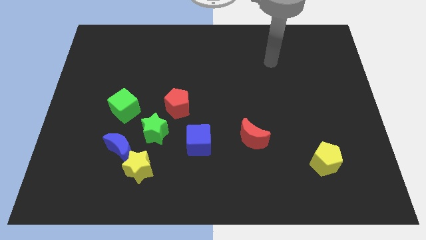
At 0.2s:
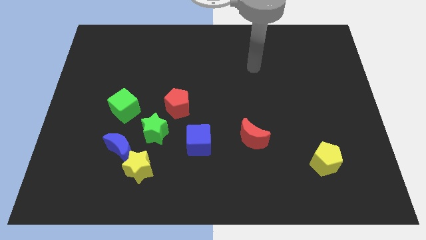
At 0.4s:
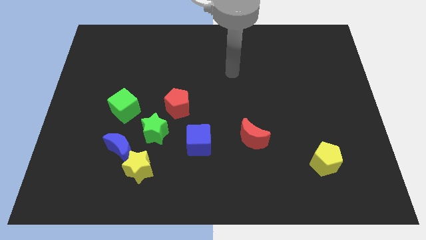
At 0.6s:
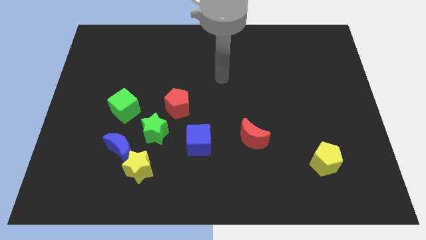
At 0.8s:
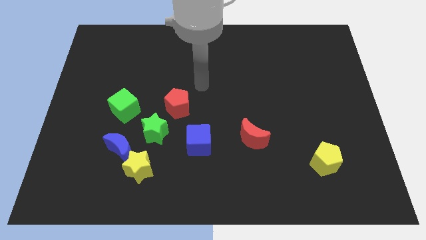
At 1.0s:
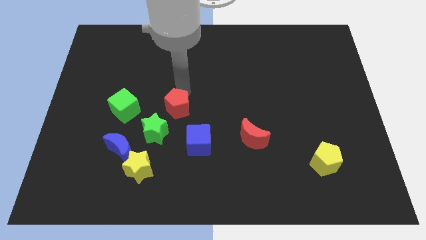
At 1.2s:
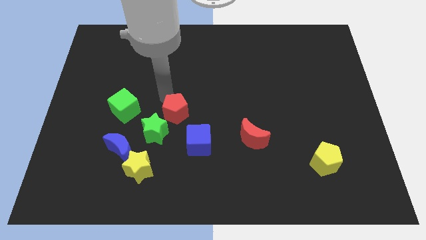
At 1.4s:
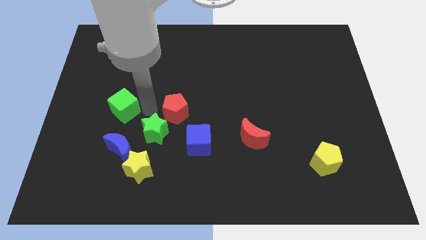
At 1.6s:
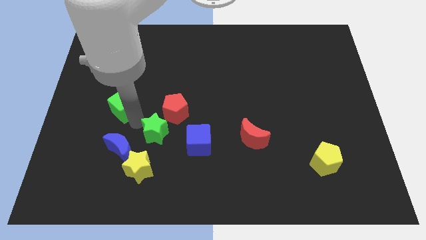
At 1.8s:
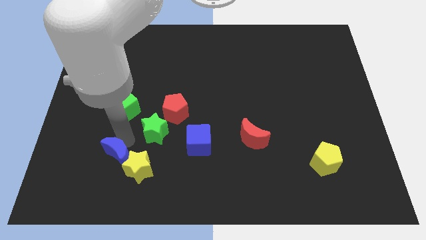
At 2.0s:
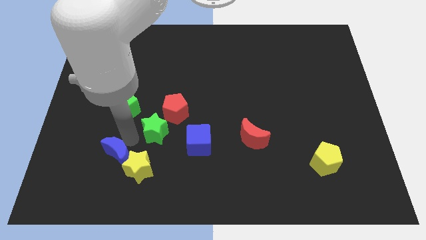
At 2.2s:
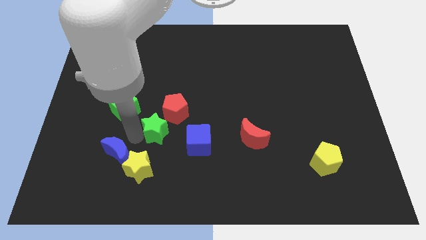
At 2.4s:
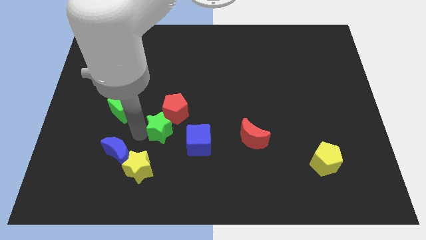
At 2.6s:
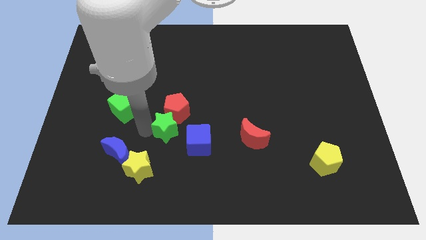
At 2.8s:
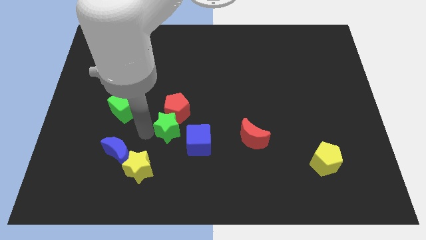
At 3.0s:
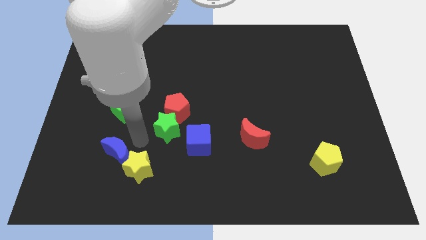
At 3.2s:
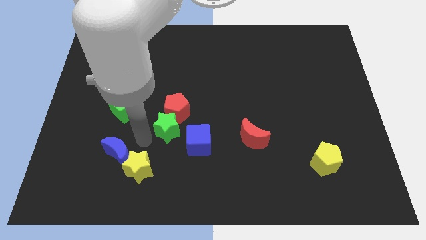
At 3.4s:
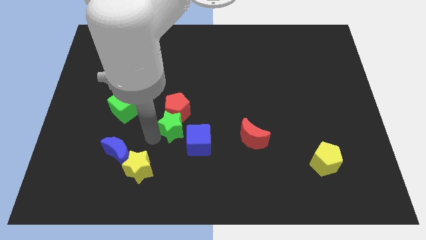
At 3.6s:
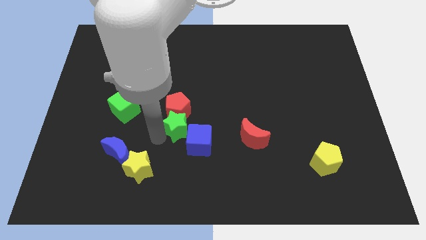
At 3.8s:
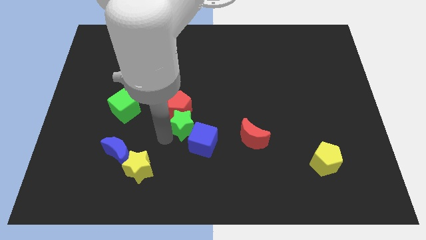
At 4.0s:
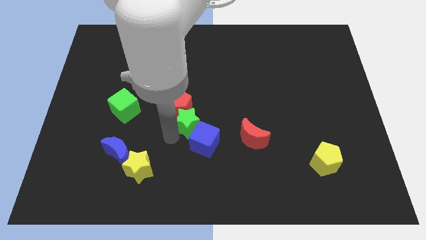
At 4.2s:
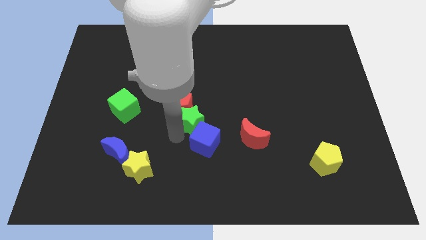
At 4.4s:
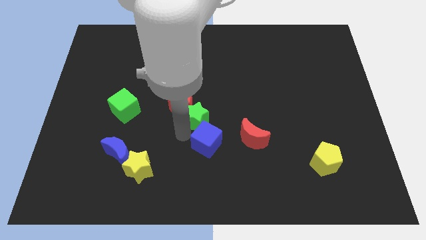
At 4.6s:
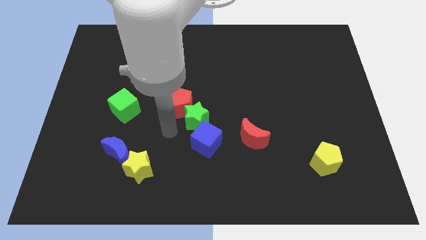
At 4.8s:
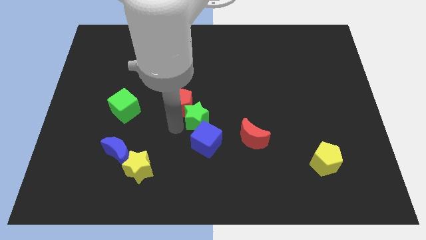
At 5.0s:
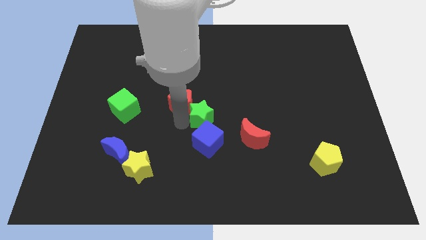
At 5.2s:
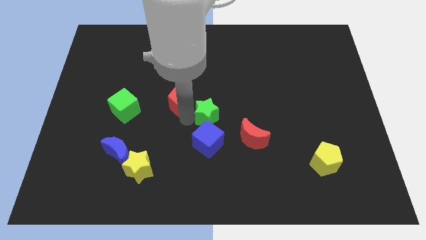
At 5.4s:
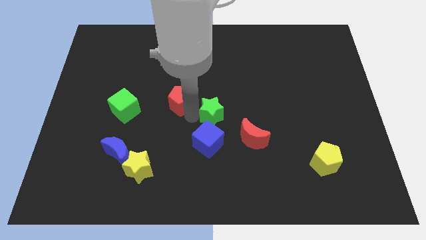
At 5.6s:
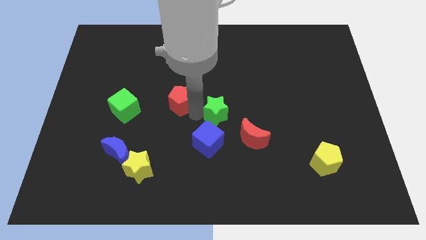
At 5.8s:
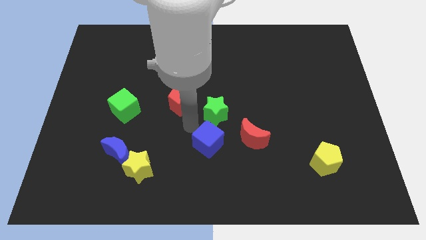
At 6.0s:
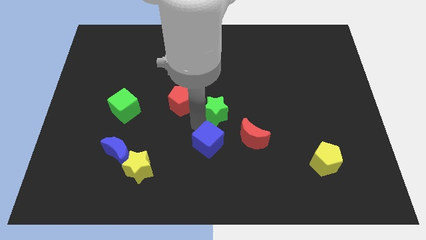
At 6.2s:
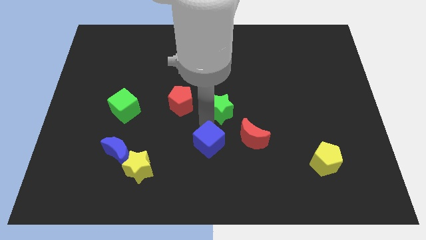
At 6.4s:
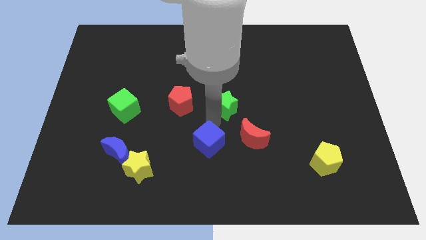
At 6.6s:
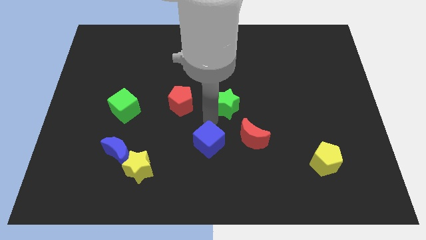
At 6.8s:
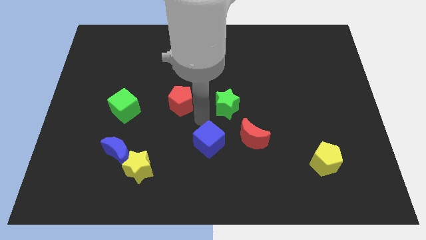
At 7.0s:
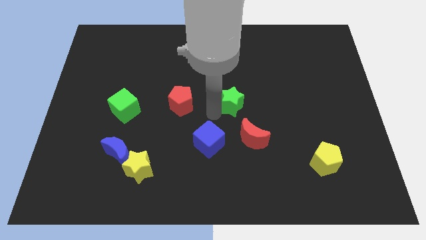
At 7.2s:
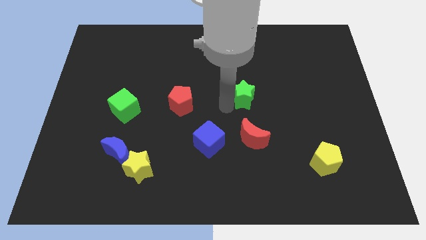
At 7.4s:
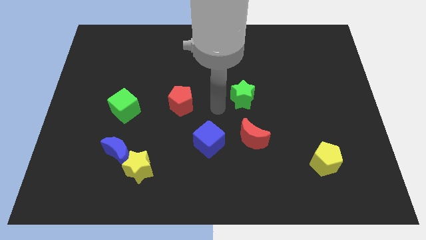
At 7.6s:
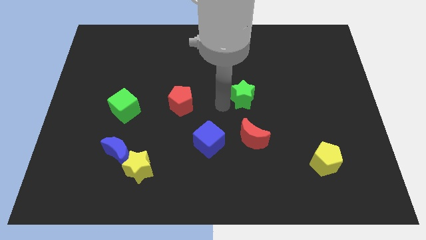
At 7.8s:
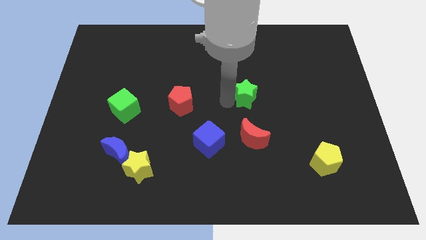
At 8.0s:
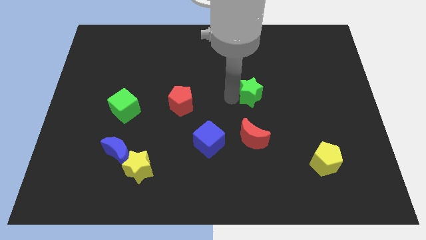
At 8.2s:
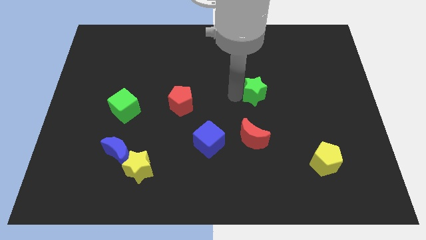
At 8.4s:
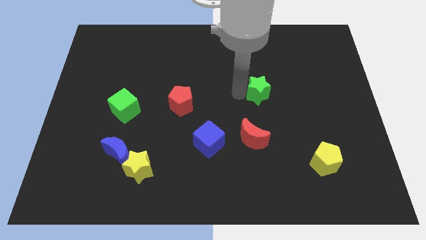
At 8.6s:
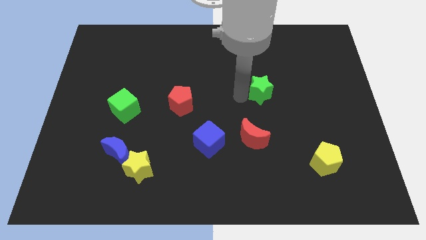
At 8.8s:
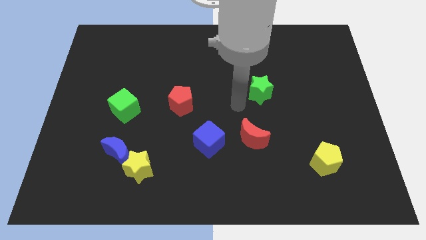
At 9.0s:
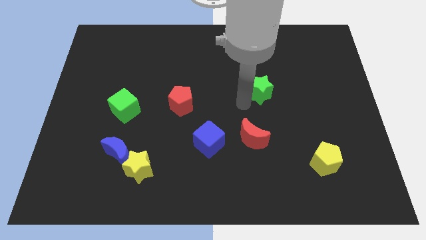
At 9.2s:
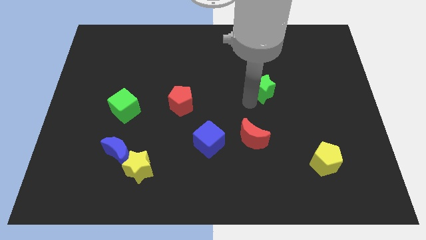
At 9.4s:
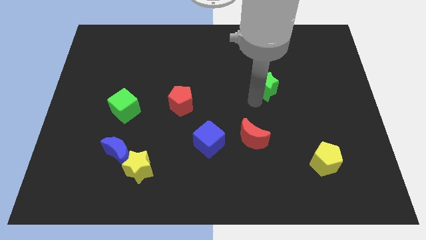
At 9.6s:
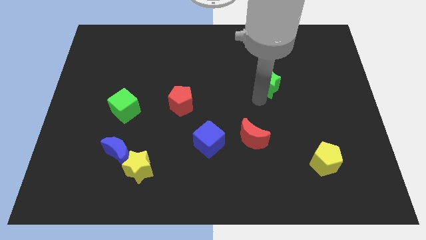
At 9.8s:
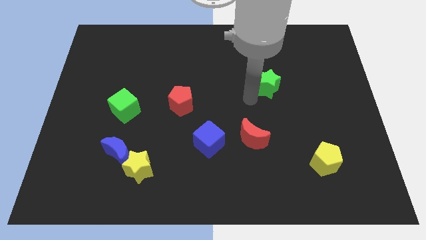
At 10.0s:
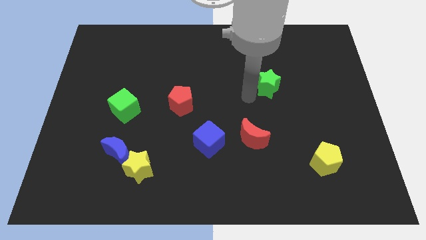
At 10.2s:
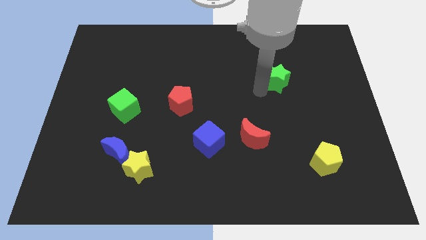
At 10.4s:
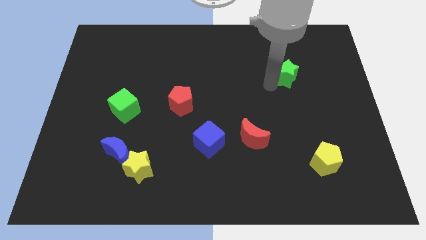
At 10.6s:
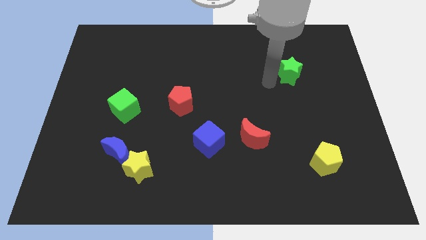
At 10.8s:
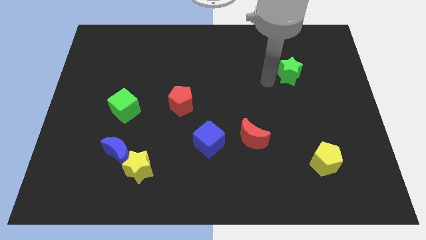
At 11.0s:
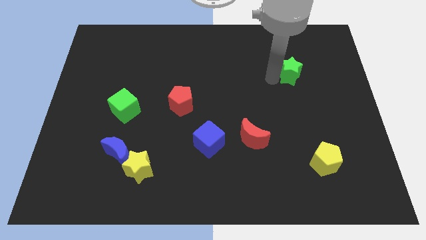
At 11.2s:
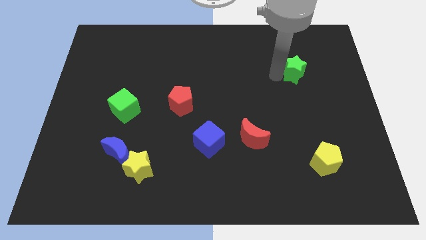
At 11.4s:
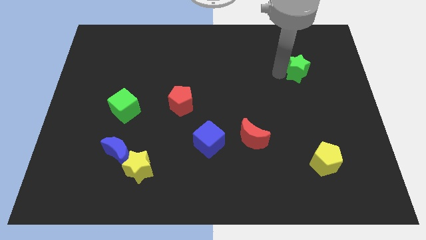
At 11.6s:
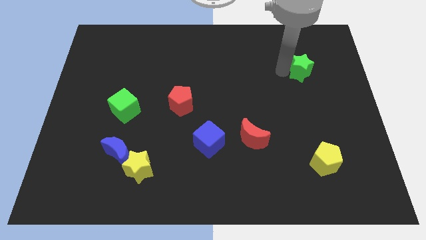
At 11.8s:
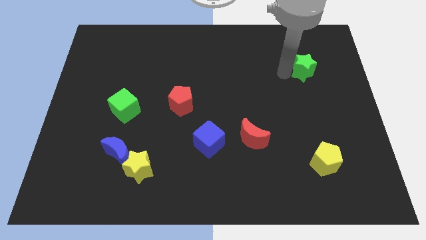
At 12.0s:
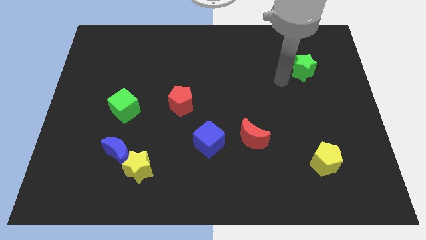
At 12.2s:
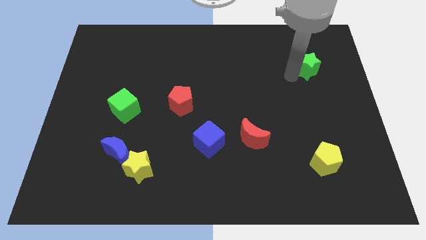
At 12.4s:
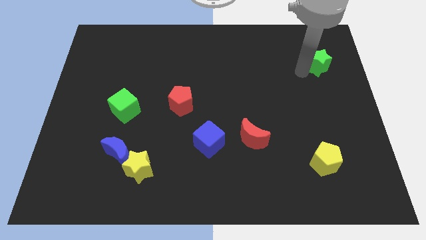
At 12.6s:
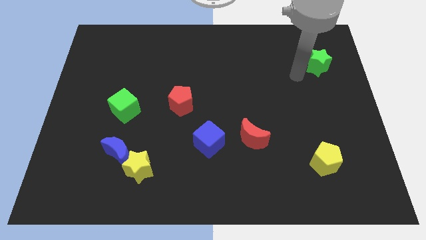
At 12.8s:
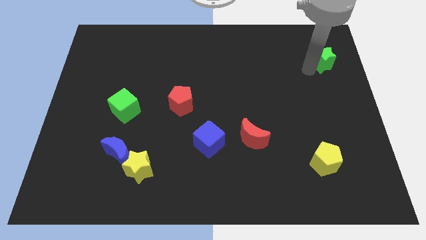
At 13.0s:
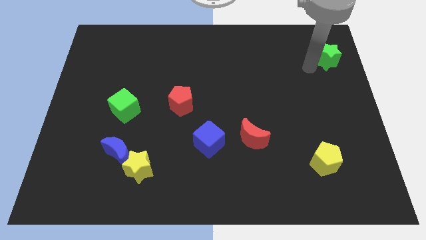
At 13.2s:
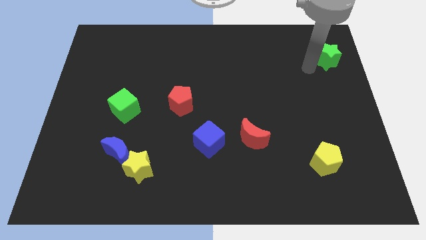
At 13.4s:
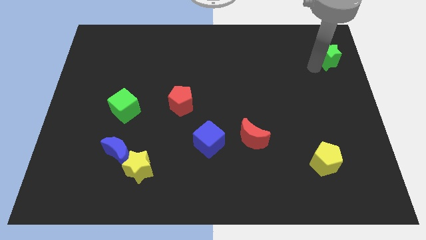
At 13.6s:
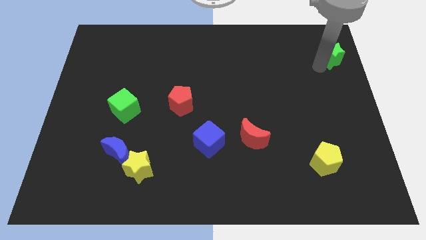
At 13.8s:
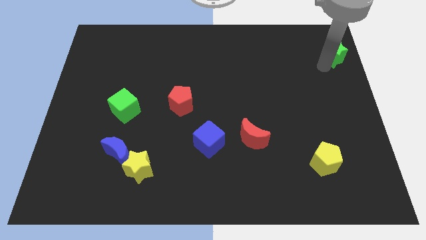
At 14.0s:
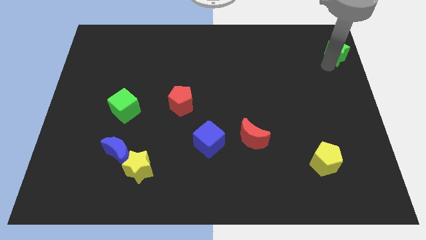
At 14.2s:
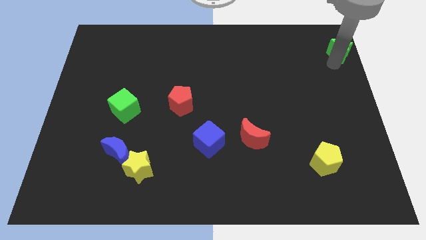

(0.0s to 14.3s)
put the green star to the top right of the board

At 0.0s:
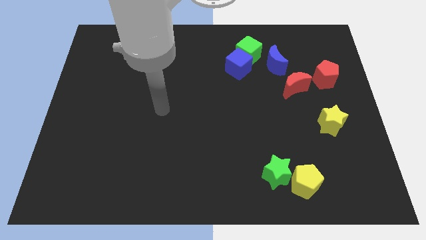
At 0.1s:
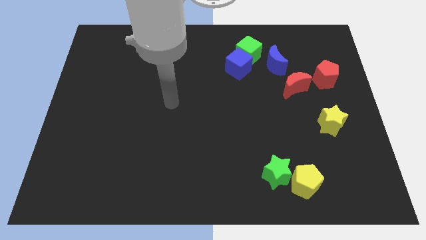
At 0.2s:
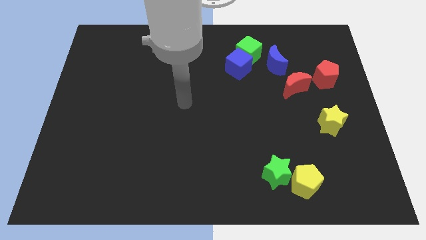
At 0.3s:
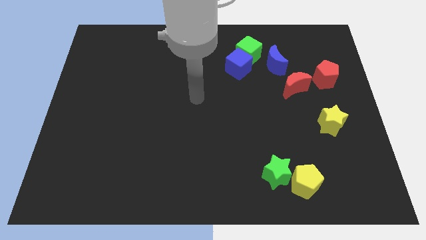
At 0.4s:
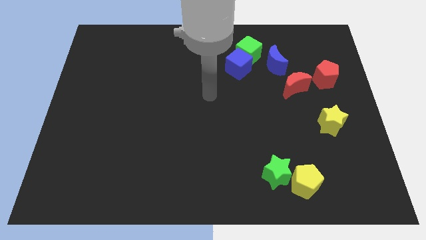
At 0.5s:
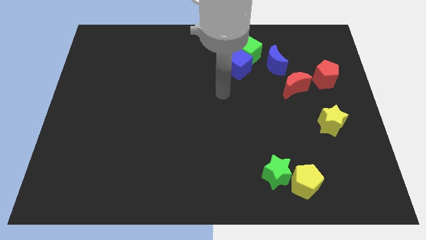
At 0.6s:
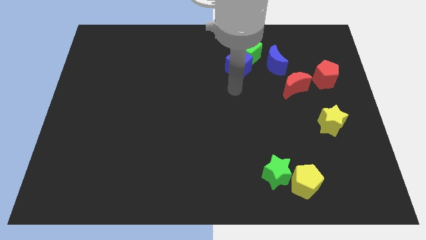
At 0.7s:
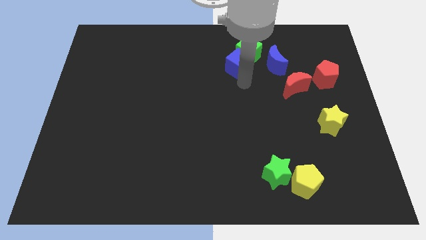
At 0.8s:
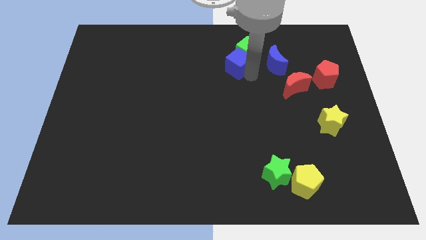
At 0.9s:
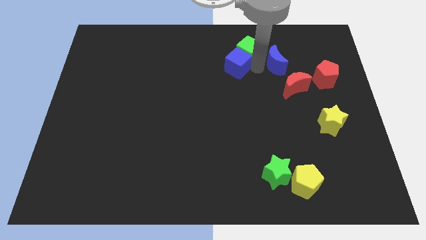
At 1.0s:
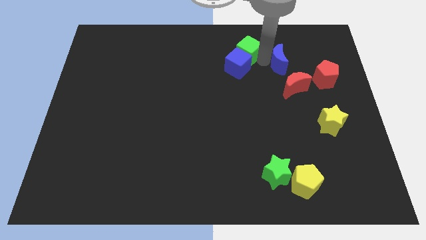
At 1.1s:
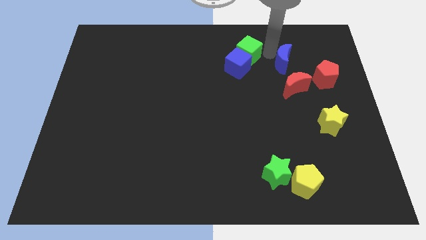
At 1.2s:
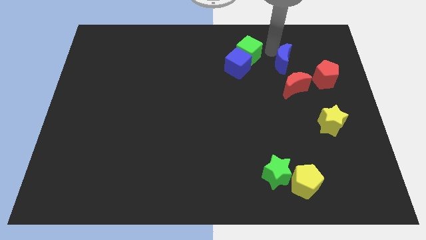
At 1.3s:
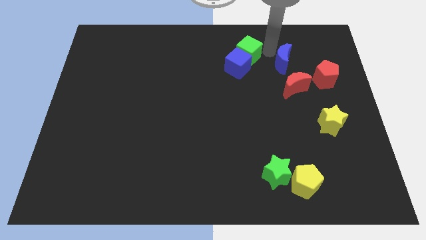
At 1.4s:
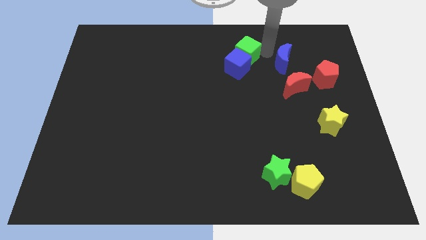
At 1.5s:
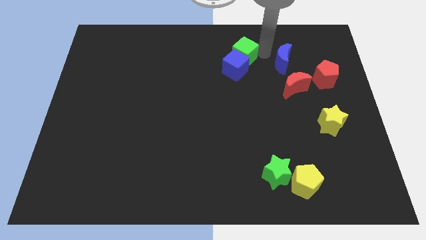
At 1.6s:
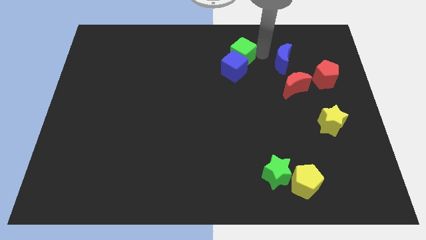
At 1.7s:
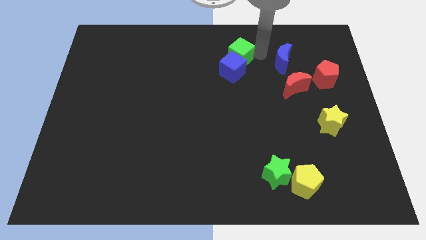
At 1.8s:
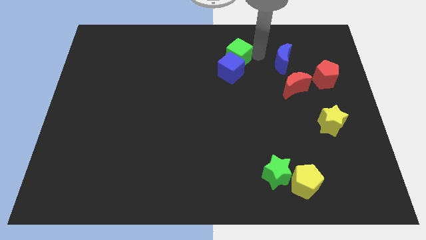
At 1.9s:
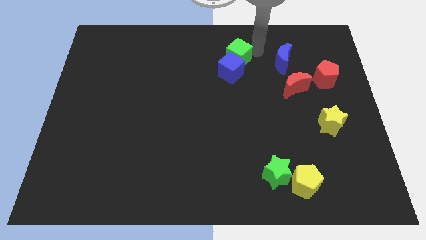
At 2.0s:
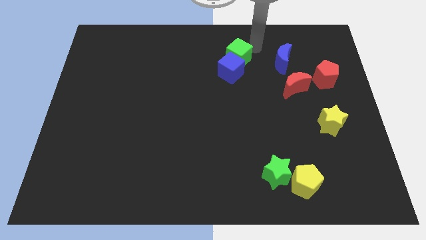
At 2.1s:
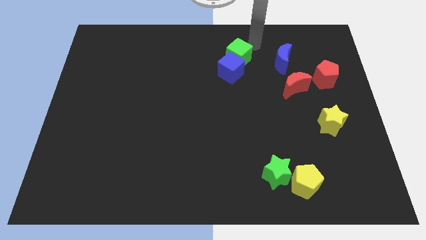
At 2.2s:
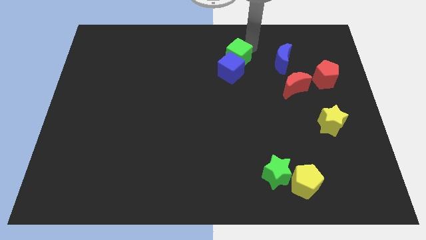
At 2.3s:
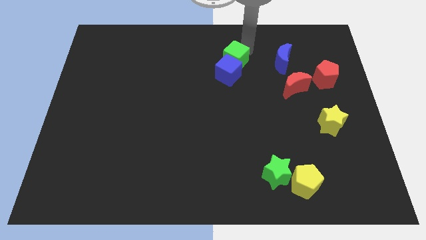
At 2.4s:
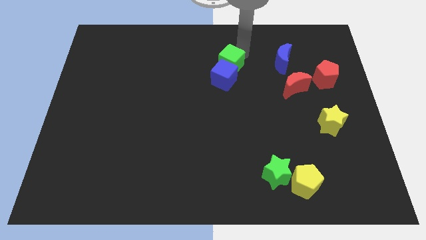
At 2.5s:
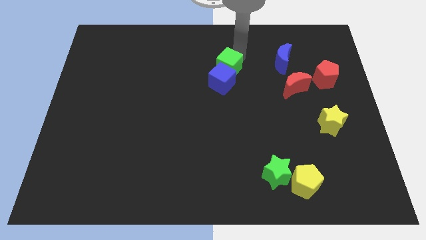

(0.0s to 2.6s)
put the green cube to the center of the board
